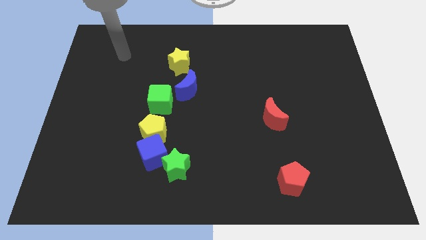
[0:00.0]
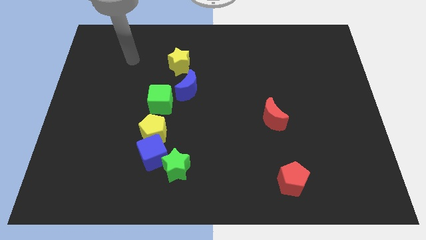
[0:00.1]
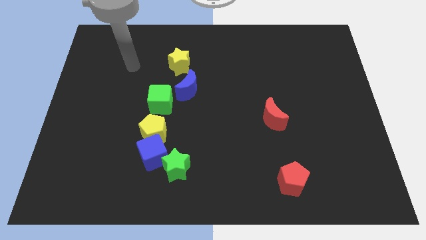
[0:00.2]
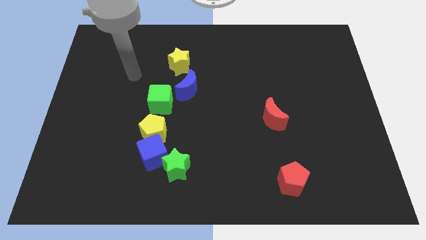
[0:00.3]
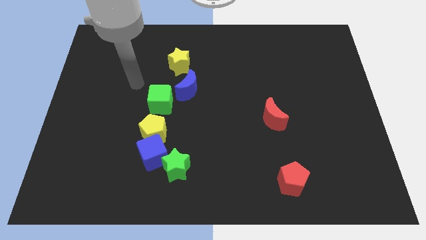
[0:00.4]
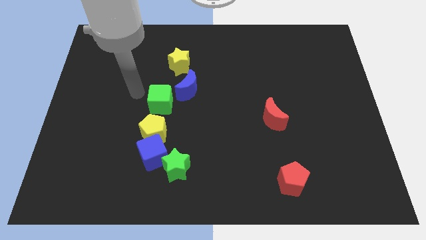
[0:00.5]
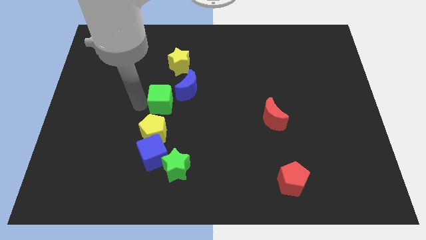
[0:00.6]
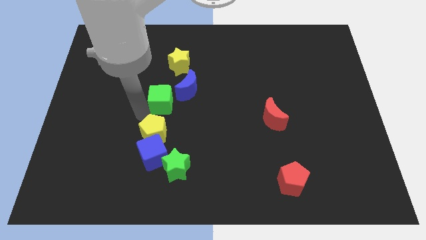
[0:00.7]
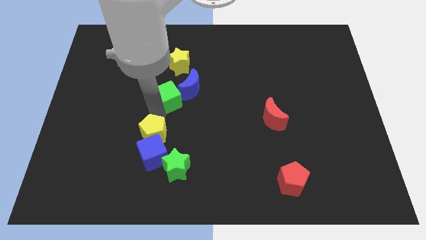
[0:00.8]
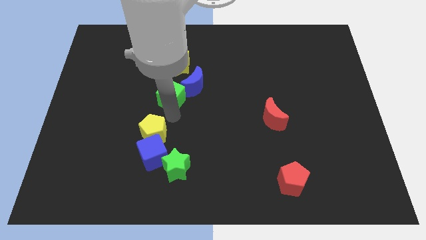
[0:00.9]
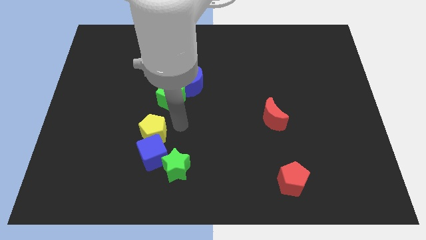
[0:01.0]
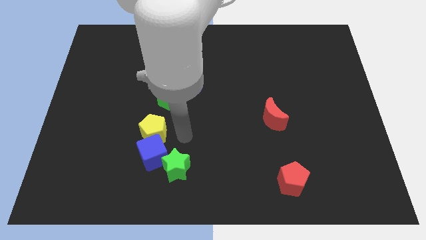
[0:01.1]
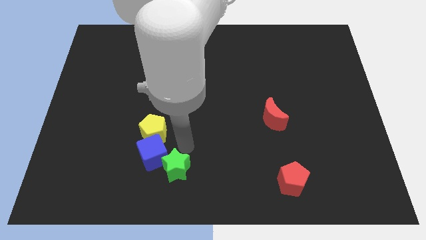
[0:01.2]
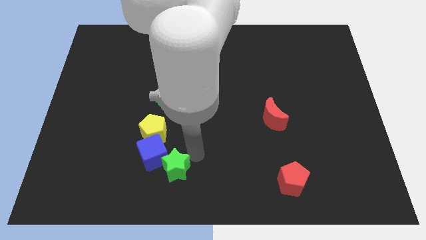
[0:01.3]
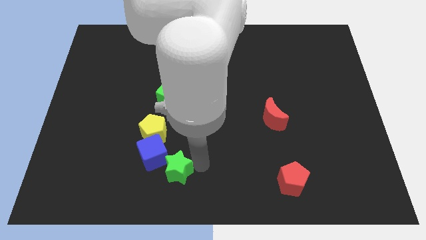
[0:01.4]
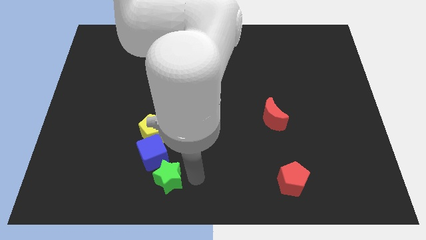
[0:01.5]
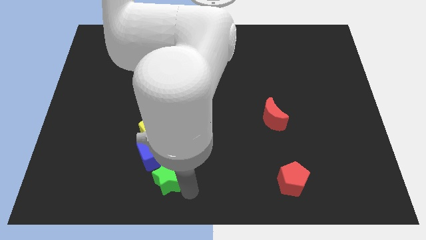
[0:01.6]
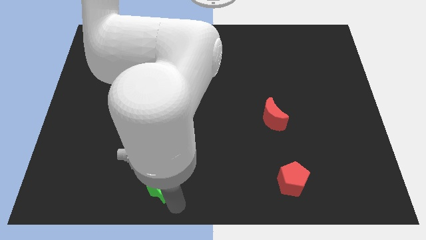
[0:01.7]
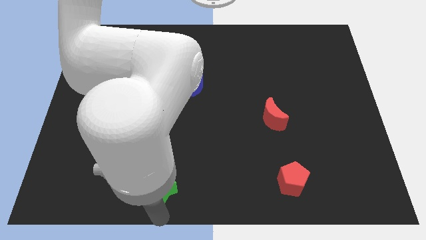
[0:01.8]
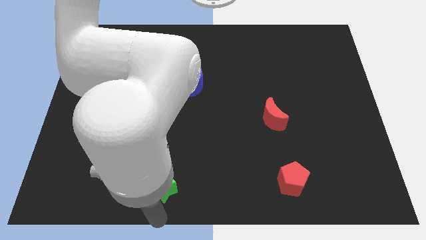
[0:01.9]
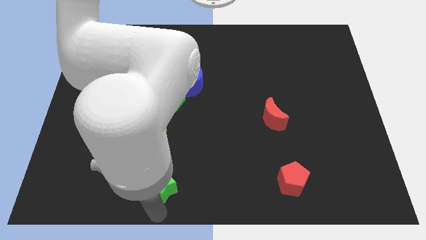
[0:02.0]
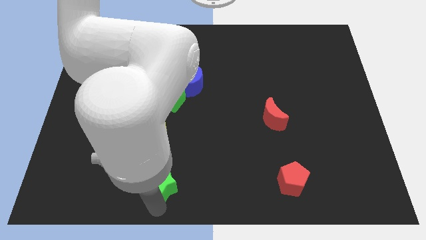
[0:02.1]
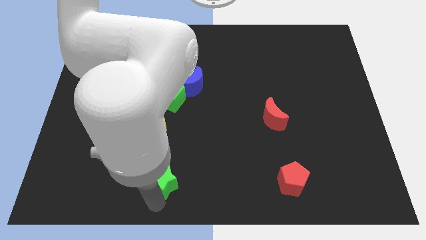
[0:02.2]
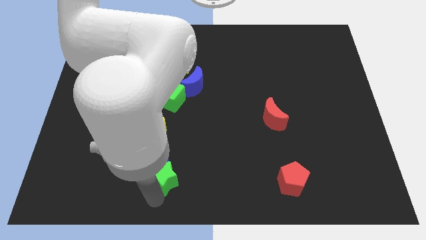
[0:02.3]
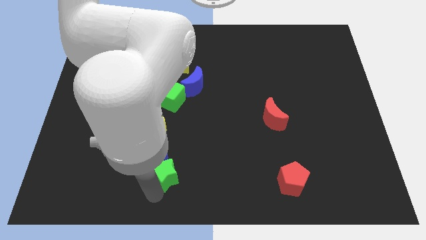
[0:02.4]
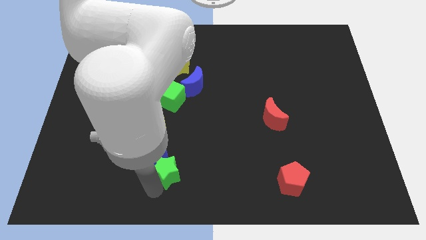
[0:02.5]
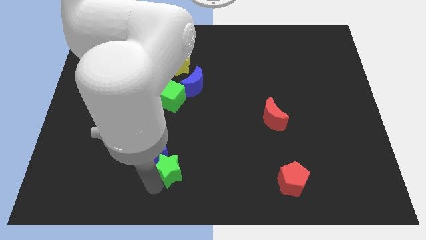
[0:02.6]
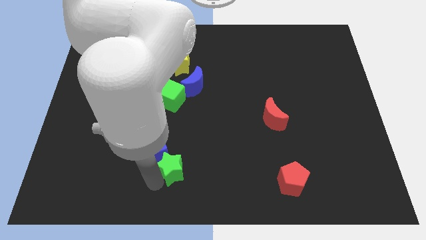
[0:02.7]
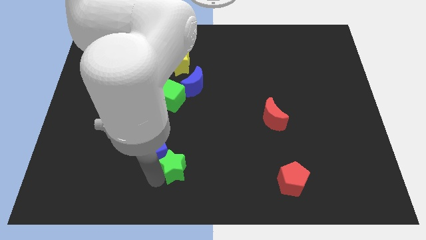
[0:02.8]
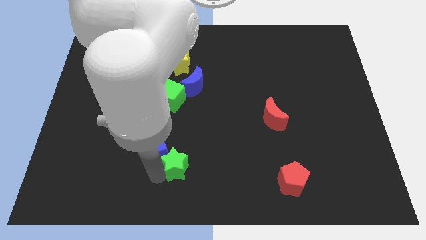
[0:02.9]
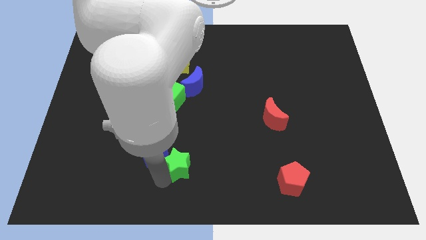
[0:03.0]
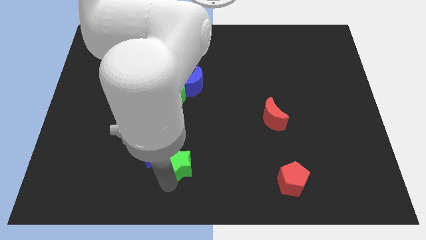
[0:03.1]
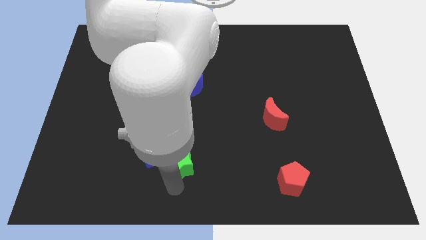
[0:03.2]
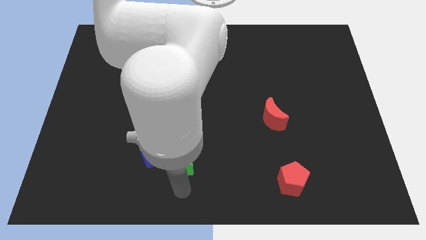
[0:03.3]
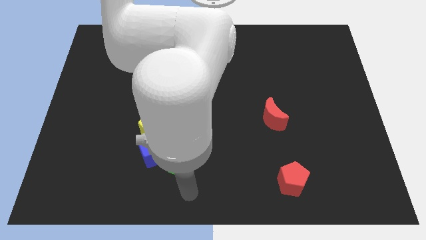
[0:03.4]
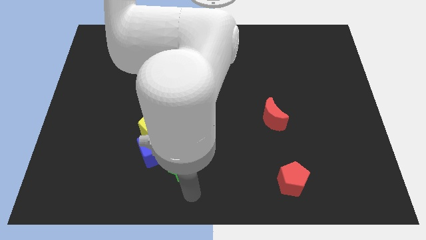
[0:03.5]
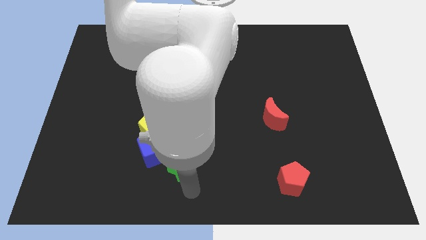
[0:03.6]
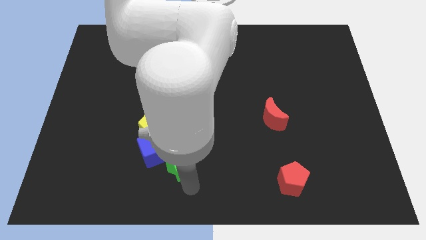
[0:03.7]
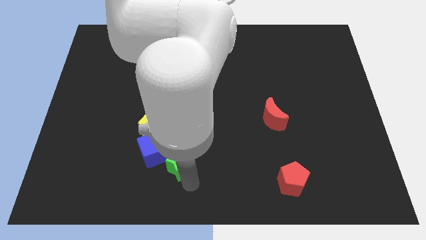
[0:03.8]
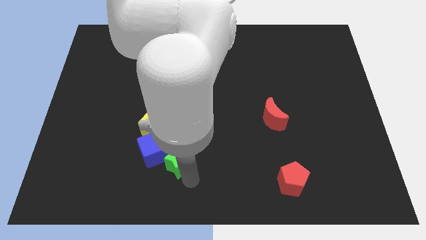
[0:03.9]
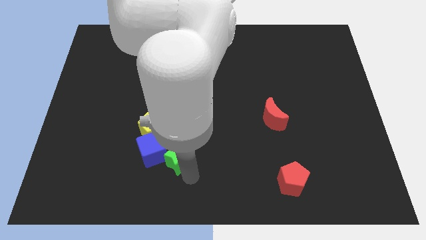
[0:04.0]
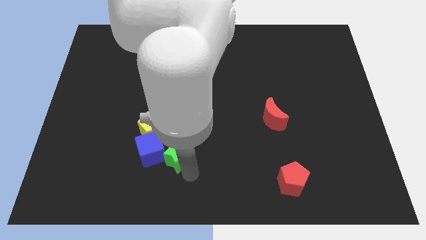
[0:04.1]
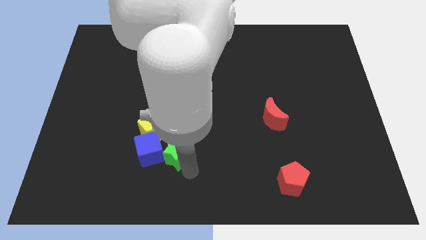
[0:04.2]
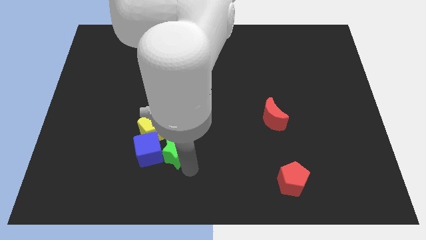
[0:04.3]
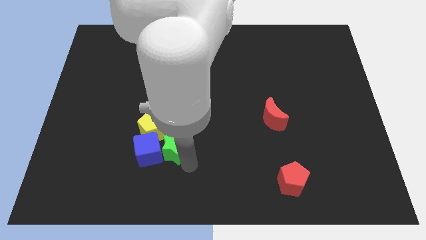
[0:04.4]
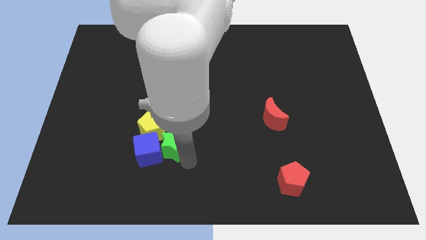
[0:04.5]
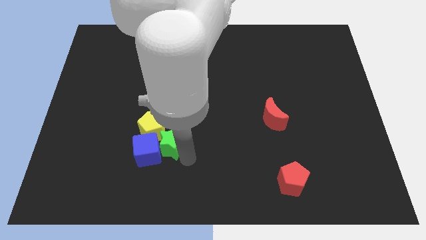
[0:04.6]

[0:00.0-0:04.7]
move the green star next to the yellow pentagon

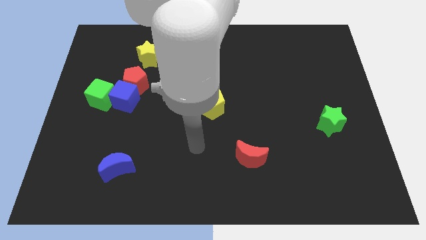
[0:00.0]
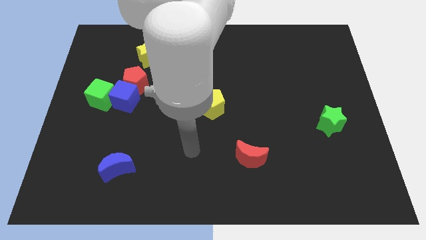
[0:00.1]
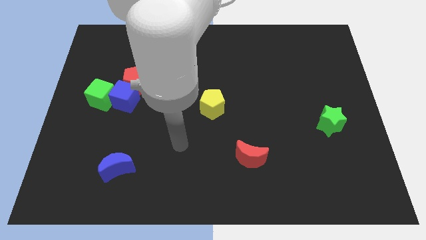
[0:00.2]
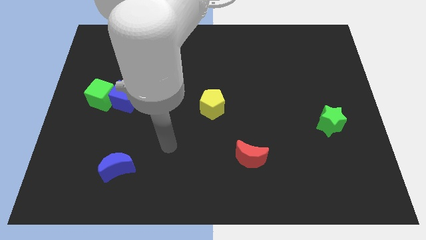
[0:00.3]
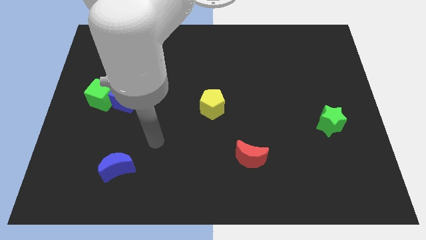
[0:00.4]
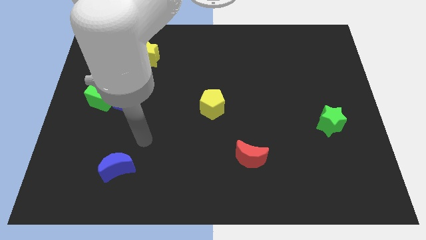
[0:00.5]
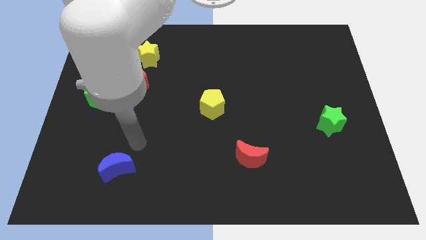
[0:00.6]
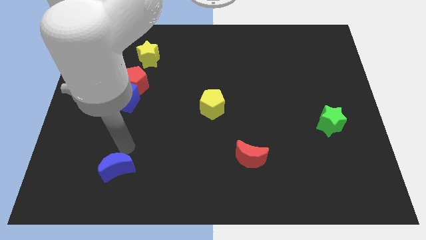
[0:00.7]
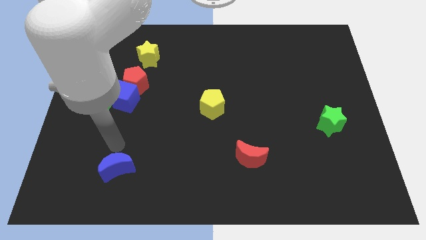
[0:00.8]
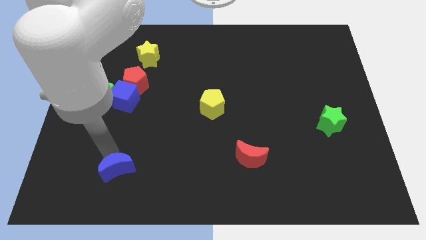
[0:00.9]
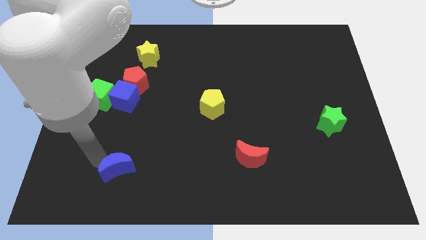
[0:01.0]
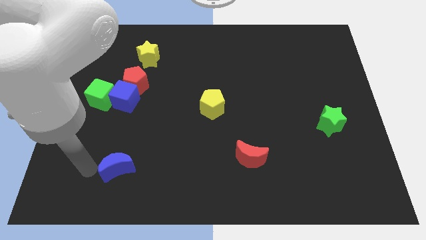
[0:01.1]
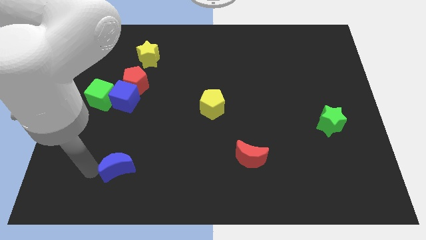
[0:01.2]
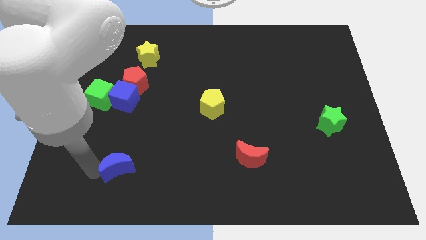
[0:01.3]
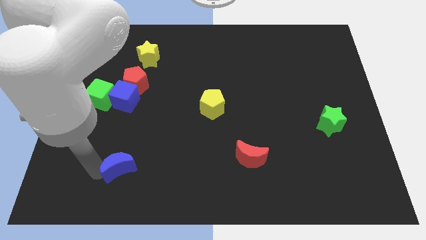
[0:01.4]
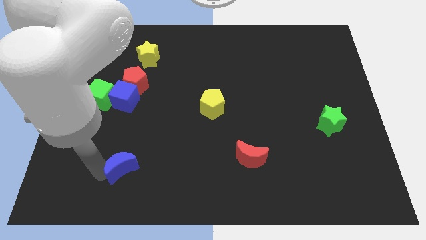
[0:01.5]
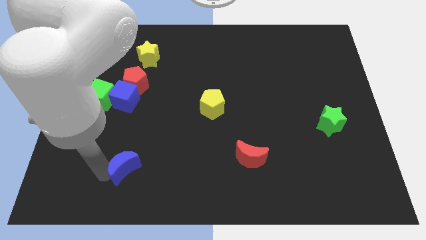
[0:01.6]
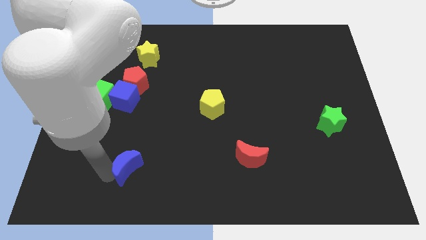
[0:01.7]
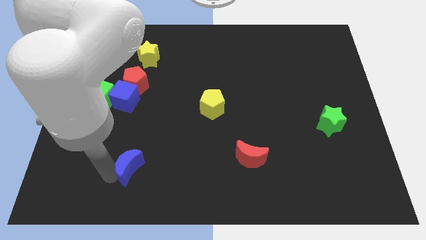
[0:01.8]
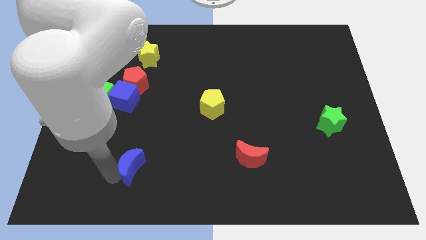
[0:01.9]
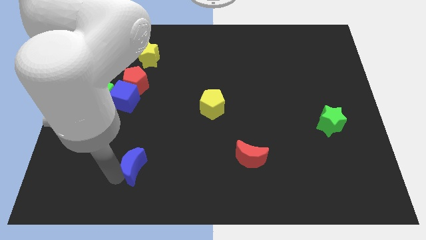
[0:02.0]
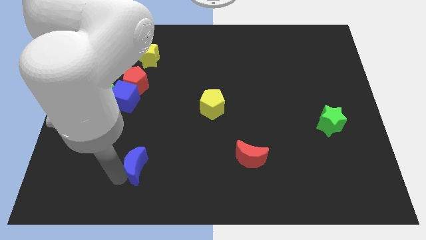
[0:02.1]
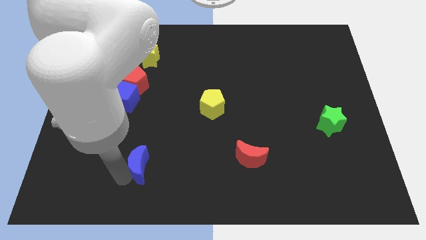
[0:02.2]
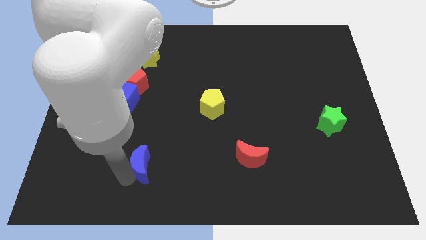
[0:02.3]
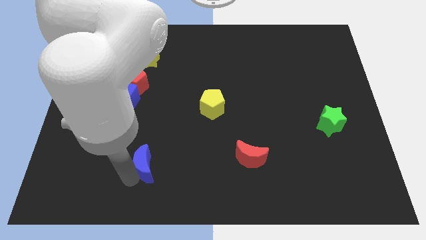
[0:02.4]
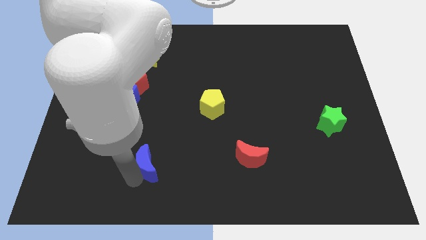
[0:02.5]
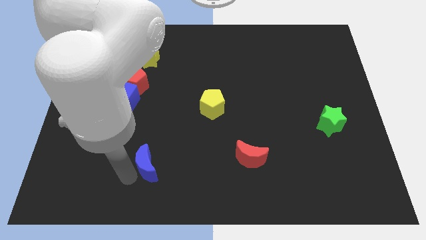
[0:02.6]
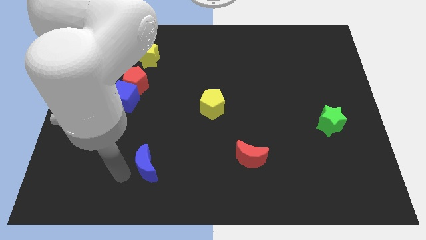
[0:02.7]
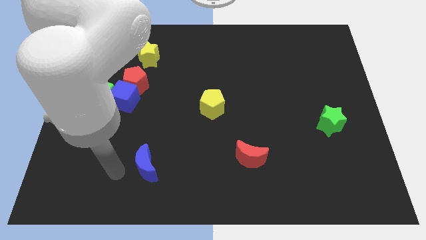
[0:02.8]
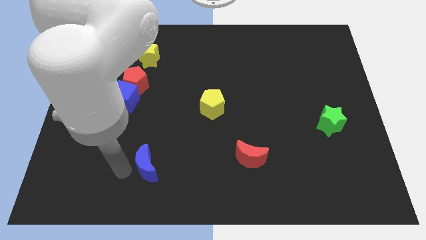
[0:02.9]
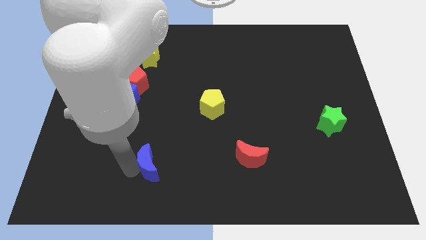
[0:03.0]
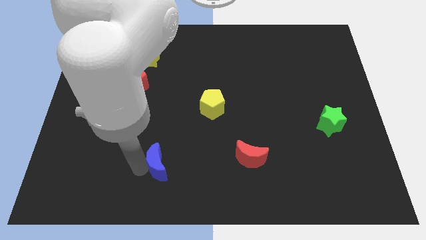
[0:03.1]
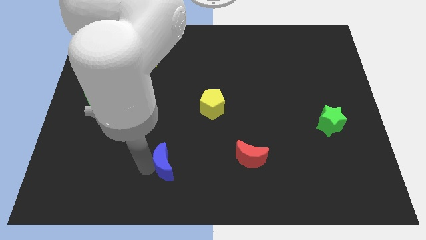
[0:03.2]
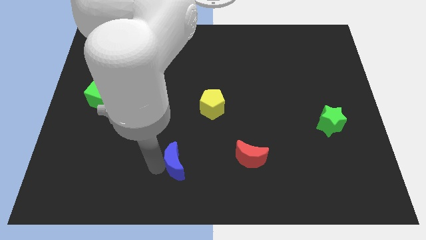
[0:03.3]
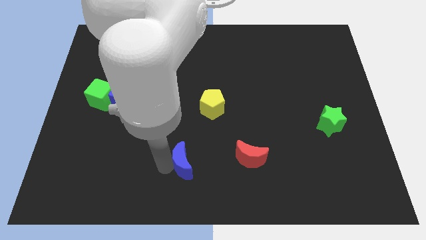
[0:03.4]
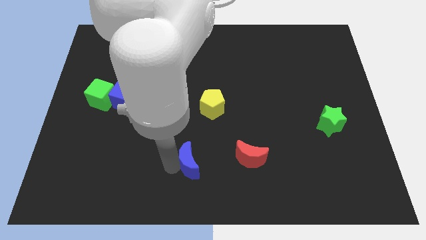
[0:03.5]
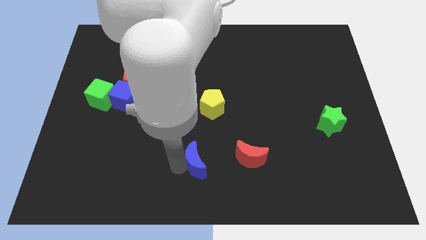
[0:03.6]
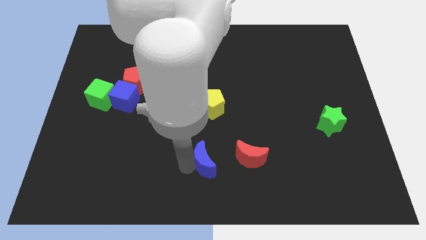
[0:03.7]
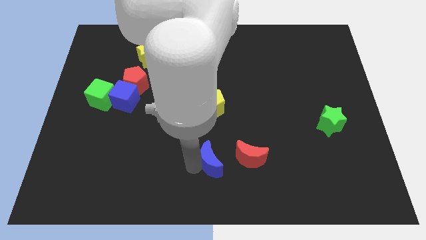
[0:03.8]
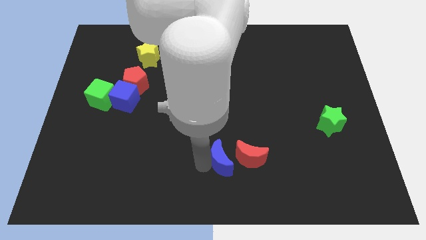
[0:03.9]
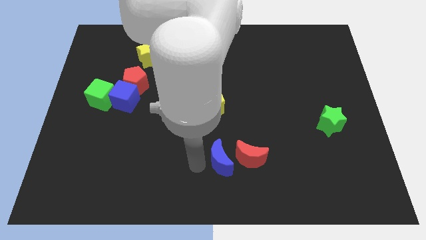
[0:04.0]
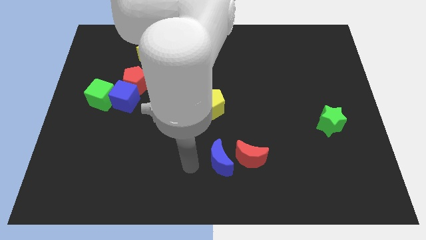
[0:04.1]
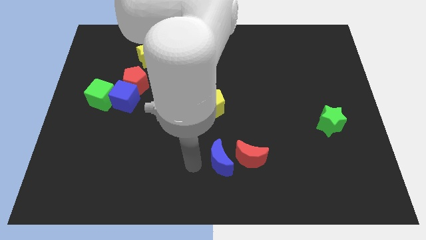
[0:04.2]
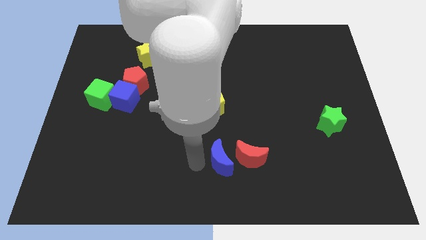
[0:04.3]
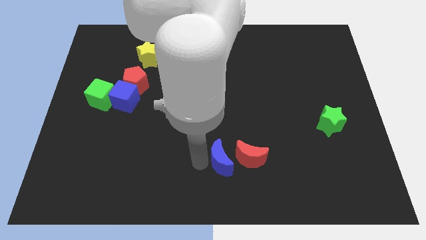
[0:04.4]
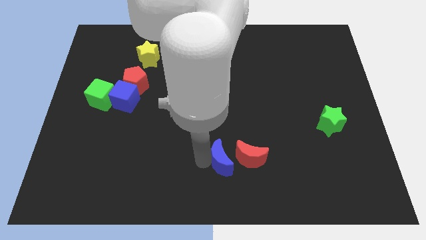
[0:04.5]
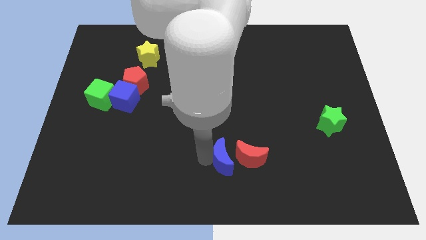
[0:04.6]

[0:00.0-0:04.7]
push the blue moon next to the red moon
